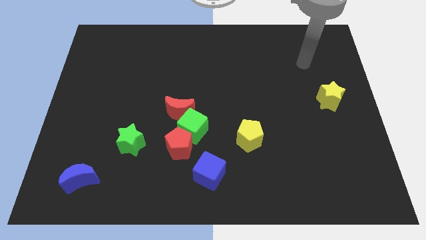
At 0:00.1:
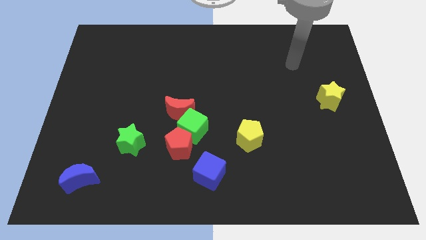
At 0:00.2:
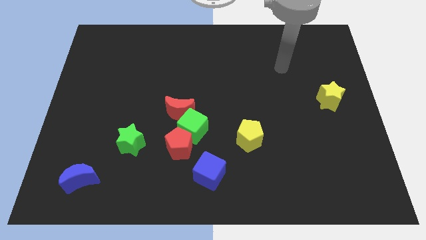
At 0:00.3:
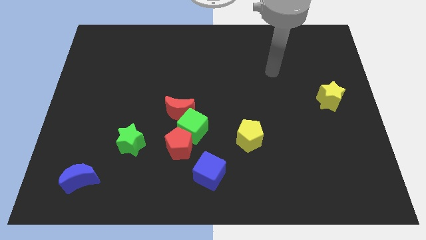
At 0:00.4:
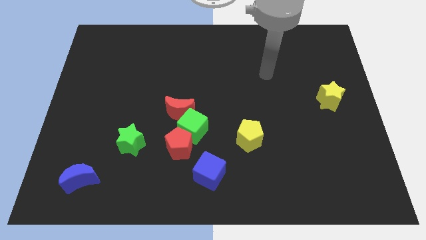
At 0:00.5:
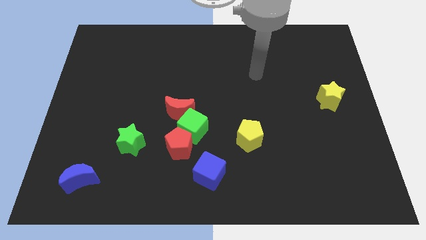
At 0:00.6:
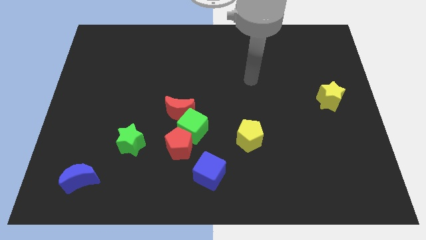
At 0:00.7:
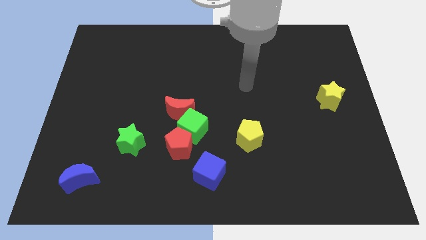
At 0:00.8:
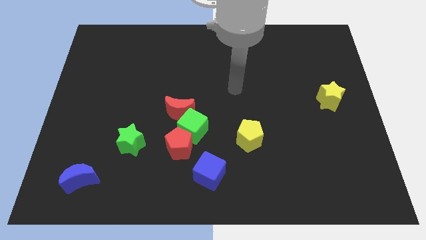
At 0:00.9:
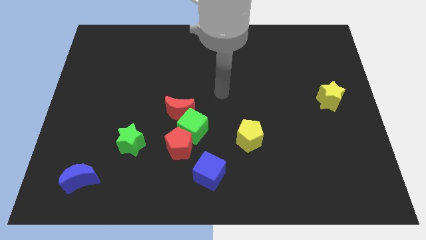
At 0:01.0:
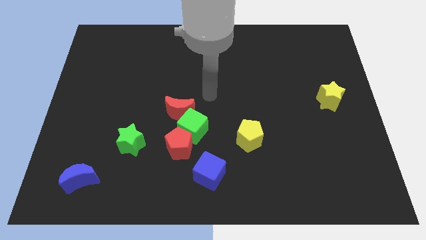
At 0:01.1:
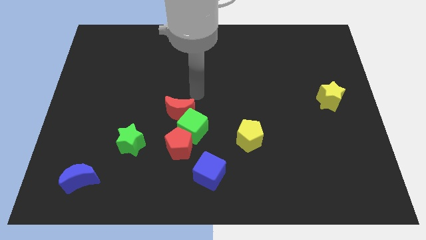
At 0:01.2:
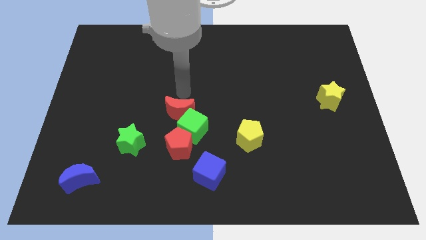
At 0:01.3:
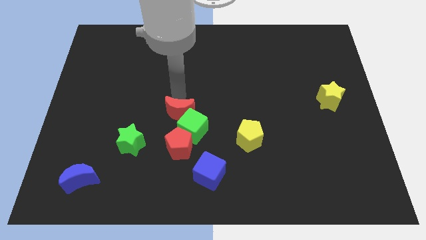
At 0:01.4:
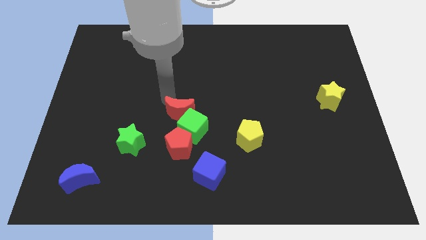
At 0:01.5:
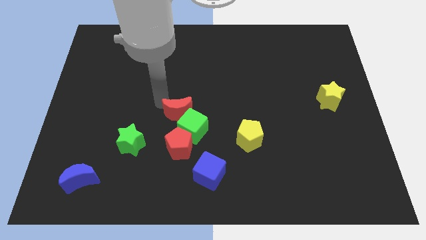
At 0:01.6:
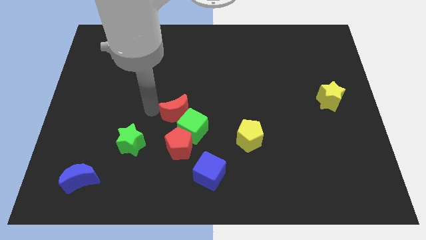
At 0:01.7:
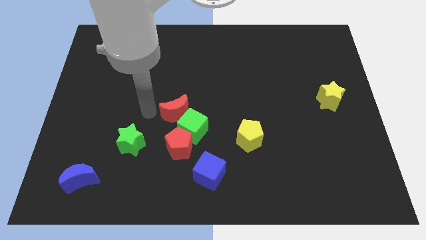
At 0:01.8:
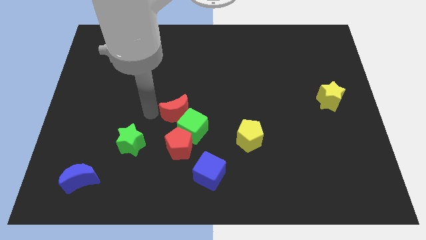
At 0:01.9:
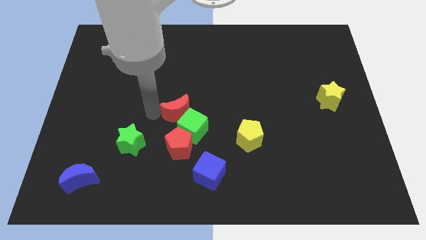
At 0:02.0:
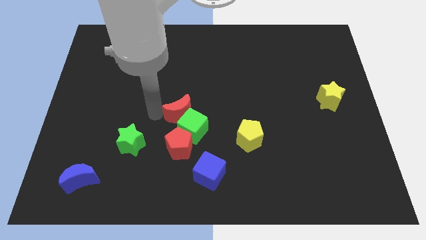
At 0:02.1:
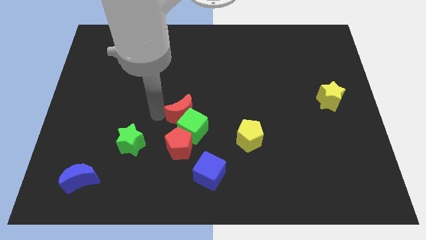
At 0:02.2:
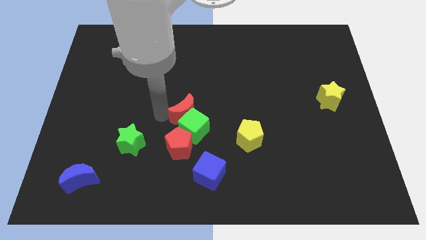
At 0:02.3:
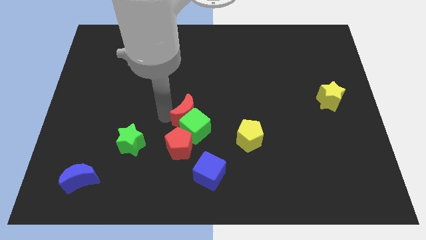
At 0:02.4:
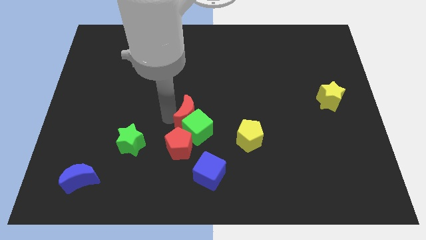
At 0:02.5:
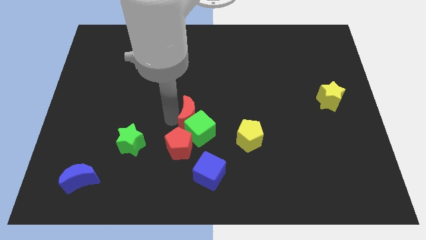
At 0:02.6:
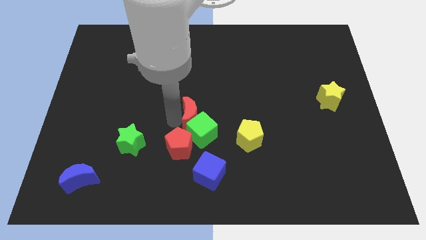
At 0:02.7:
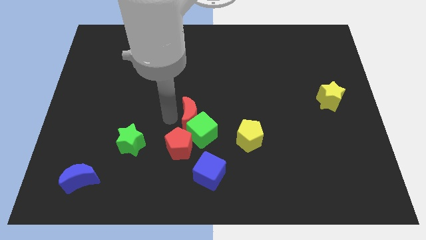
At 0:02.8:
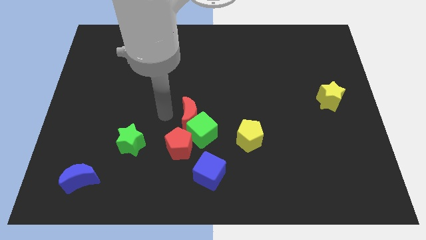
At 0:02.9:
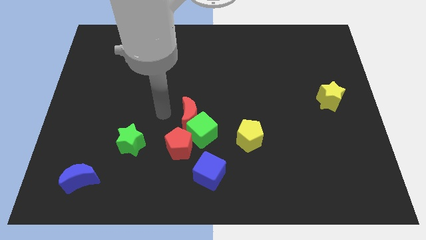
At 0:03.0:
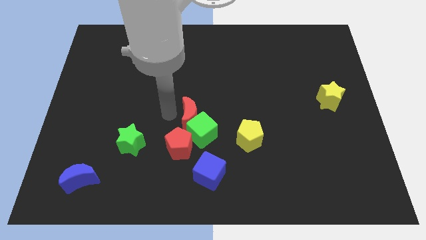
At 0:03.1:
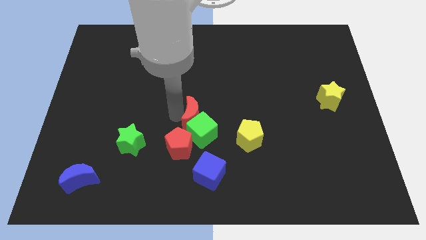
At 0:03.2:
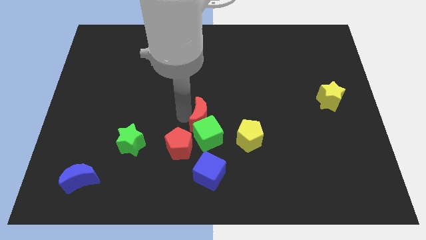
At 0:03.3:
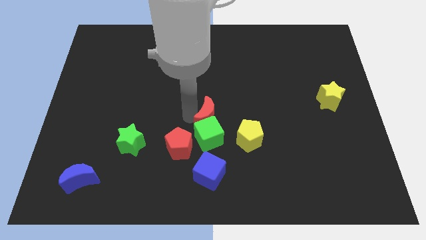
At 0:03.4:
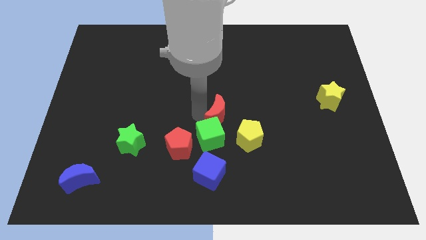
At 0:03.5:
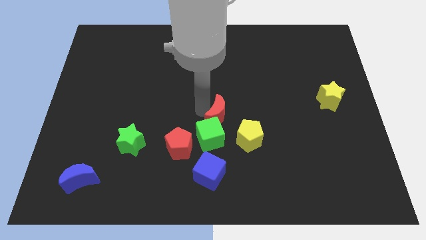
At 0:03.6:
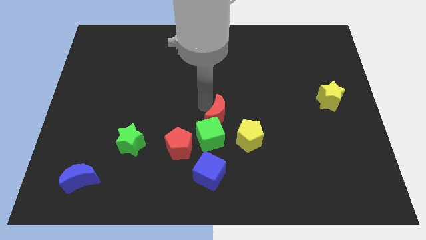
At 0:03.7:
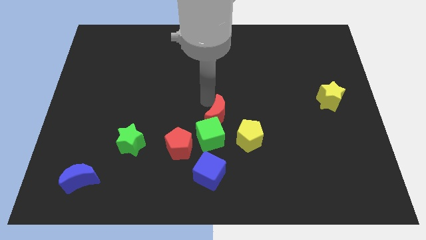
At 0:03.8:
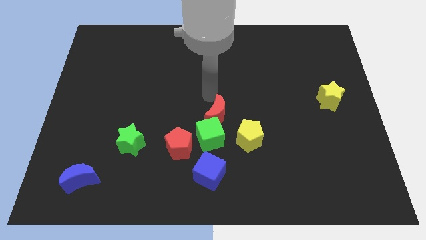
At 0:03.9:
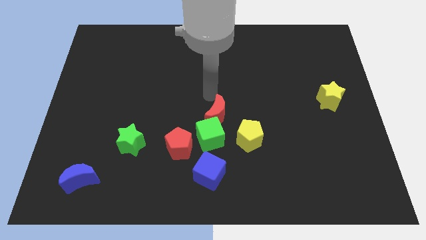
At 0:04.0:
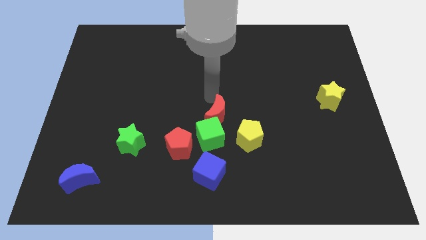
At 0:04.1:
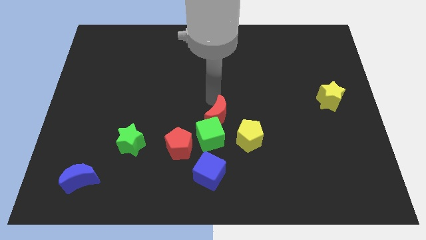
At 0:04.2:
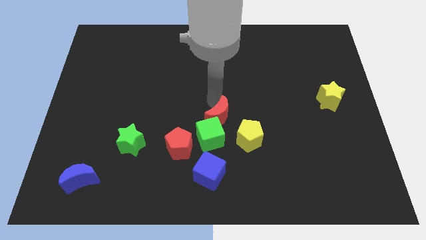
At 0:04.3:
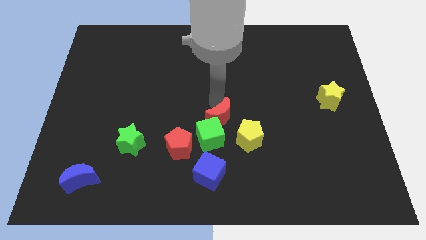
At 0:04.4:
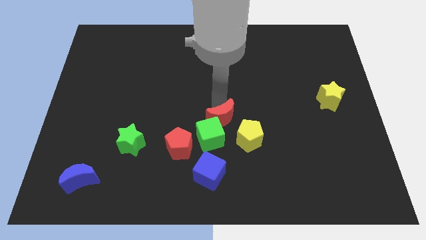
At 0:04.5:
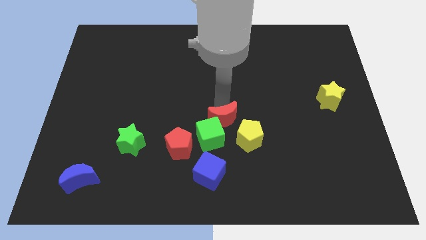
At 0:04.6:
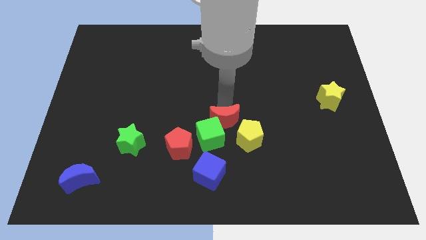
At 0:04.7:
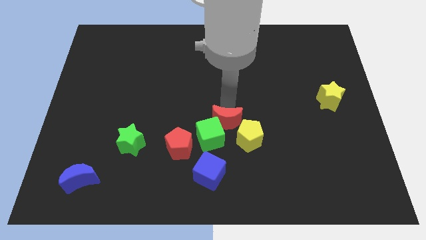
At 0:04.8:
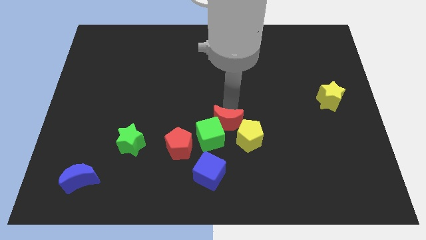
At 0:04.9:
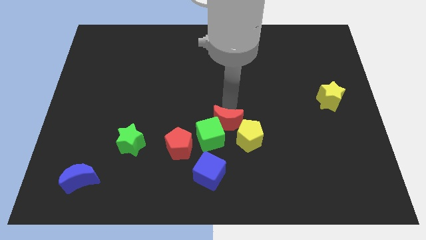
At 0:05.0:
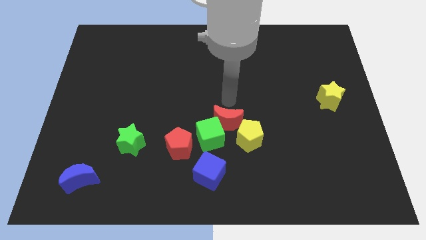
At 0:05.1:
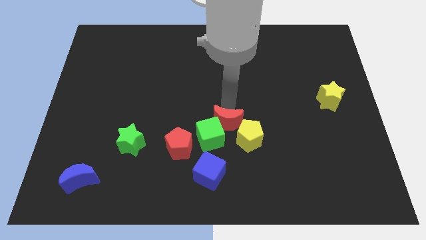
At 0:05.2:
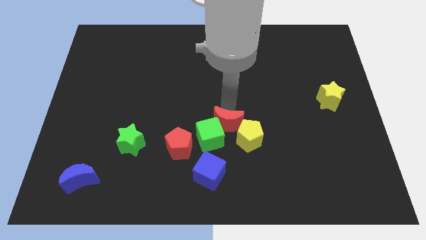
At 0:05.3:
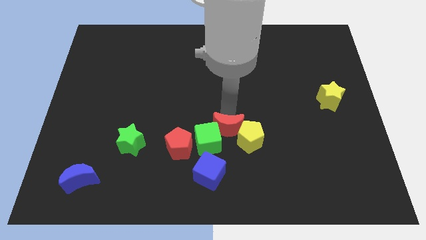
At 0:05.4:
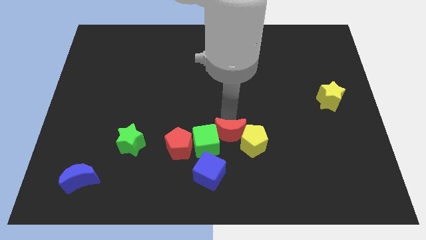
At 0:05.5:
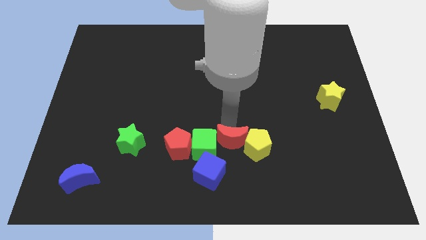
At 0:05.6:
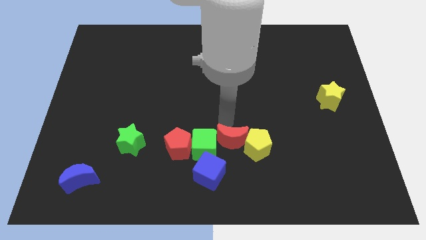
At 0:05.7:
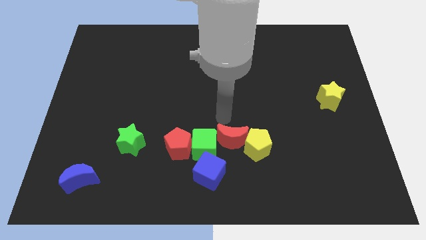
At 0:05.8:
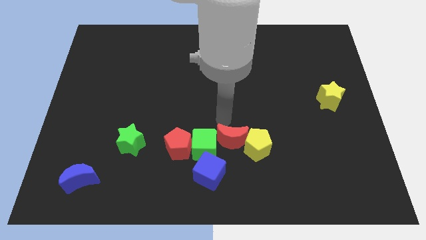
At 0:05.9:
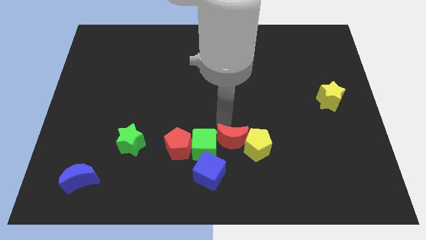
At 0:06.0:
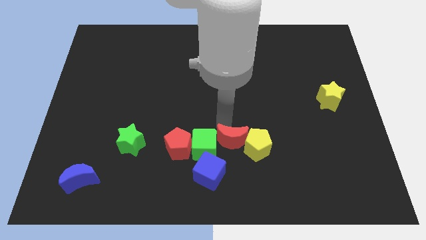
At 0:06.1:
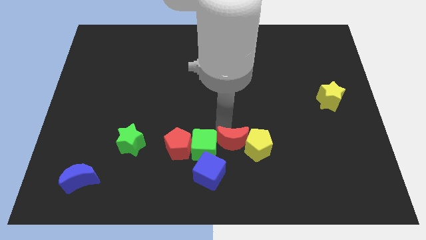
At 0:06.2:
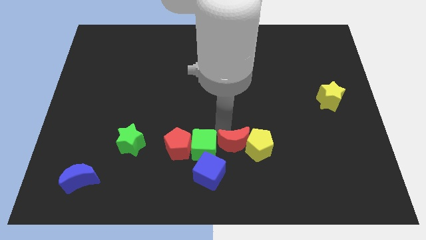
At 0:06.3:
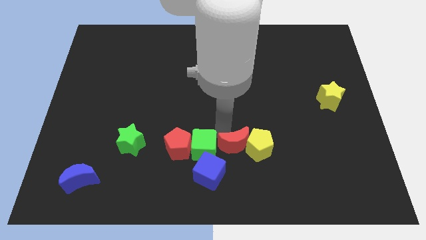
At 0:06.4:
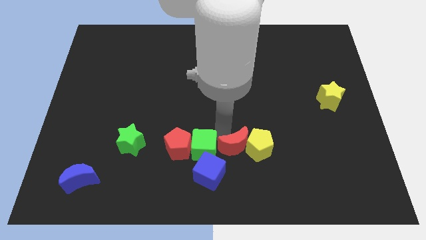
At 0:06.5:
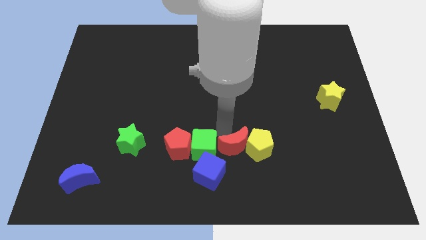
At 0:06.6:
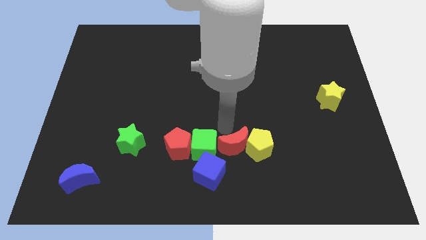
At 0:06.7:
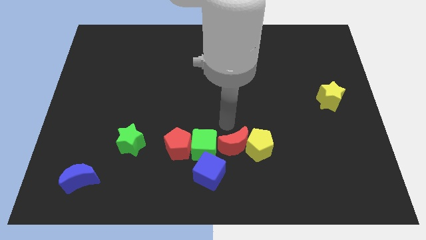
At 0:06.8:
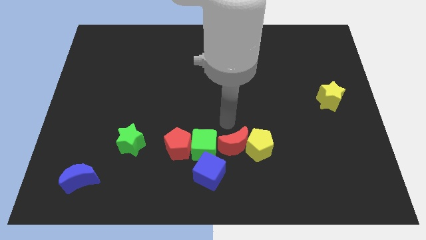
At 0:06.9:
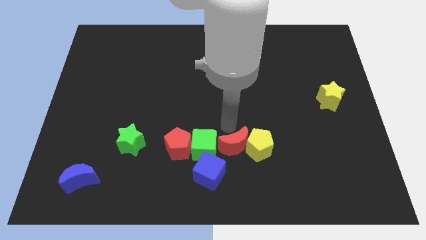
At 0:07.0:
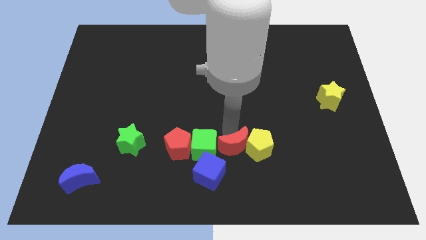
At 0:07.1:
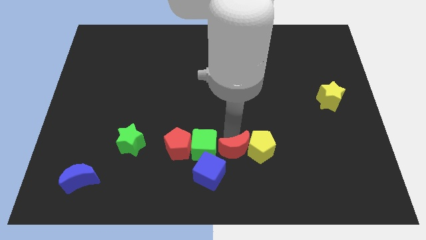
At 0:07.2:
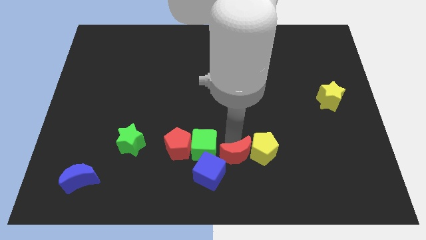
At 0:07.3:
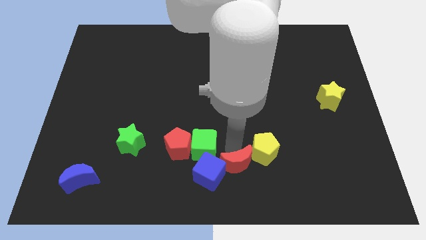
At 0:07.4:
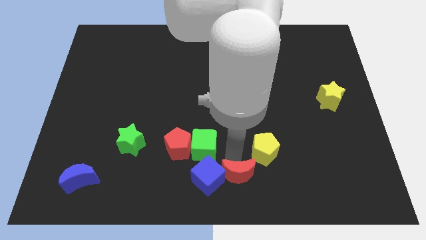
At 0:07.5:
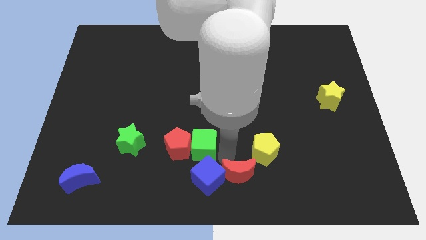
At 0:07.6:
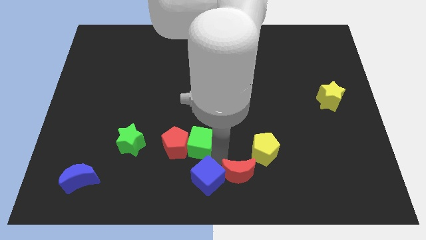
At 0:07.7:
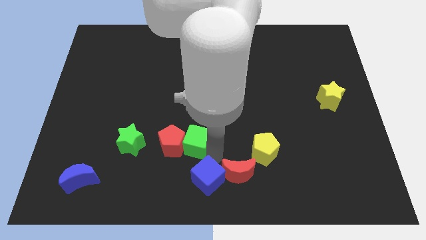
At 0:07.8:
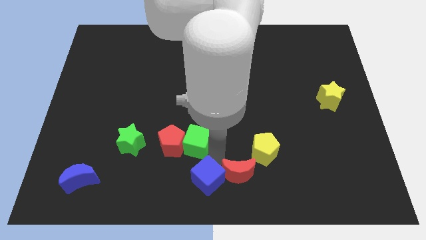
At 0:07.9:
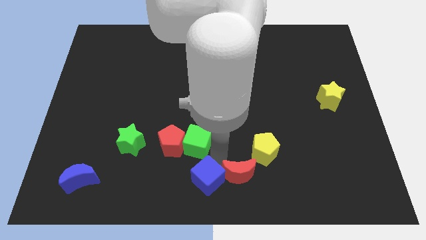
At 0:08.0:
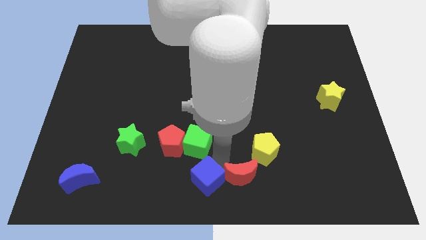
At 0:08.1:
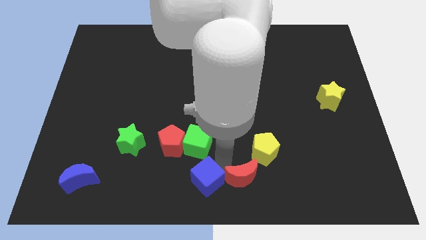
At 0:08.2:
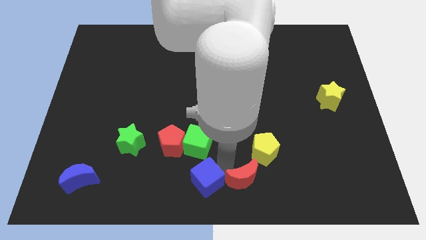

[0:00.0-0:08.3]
put the red moon to the bottom side of the yellow pentagon
